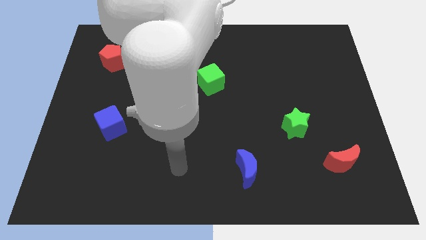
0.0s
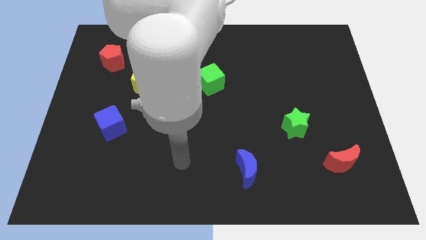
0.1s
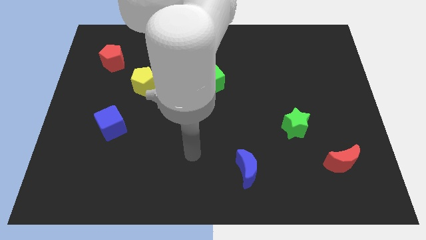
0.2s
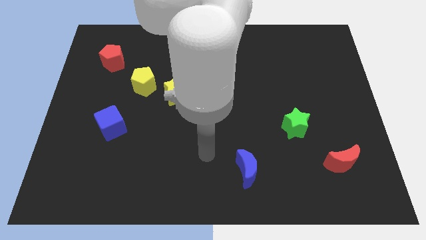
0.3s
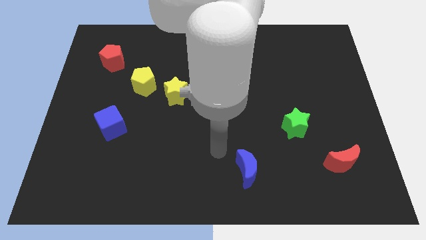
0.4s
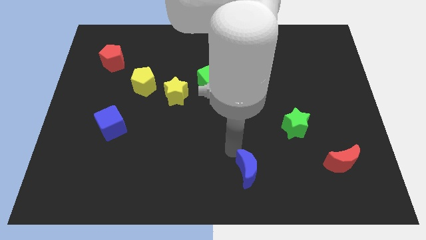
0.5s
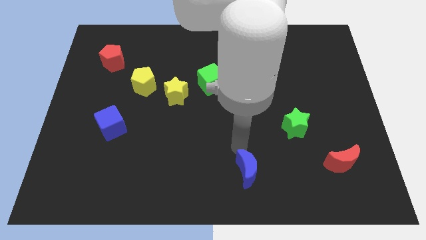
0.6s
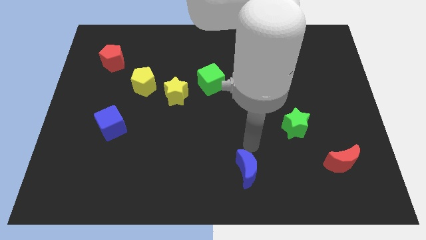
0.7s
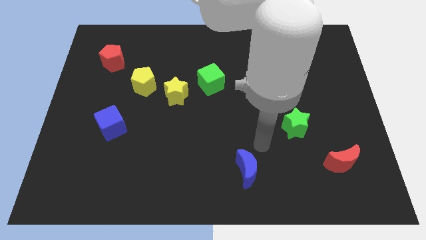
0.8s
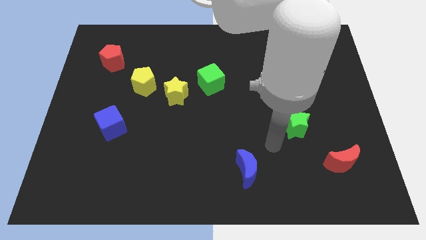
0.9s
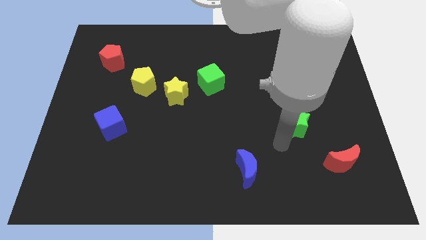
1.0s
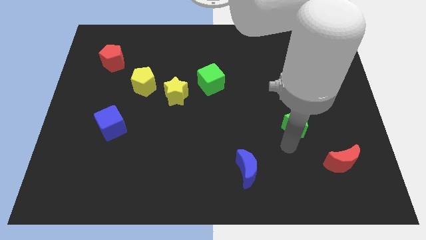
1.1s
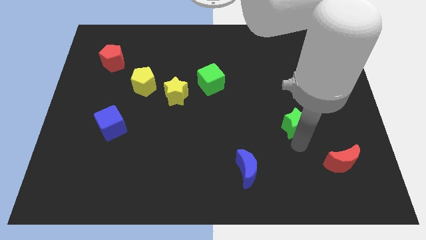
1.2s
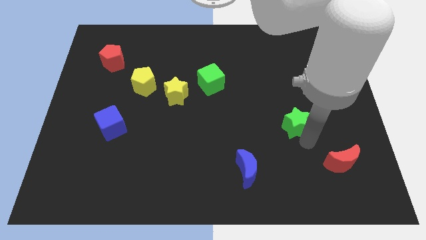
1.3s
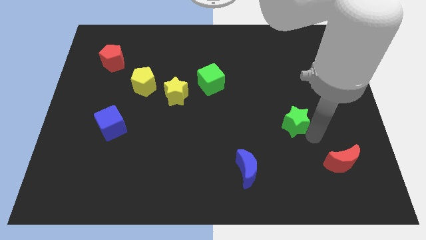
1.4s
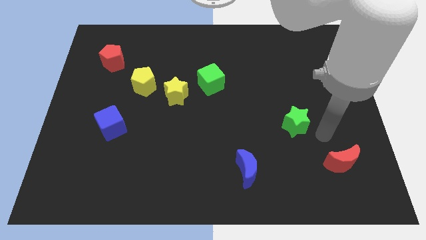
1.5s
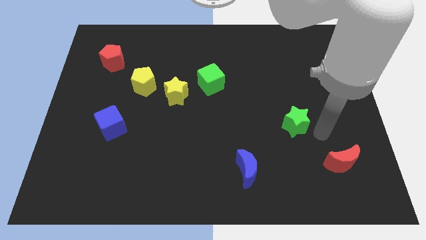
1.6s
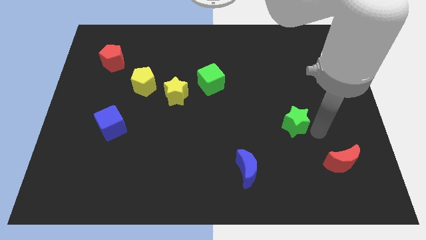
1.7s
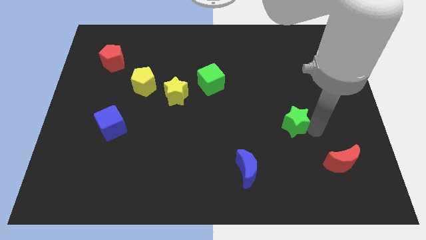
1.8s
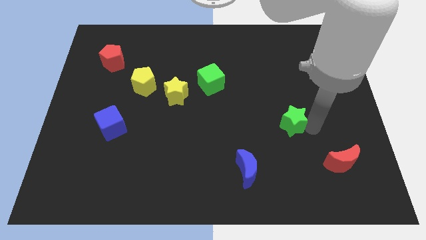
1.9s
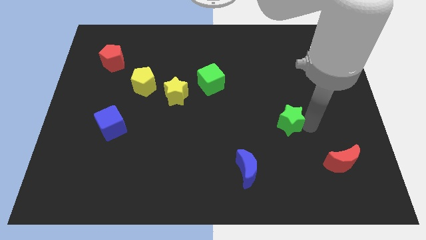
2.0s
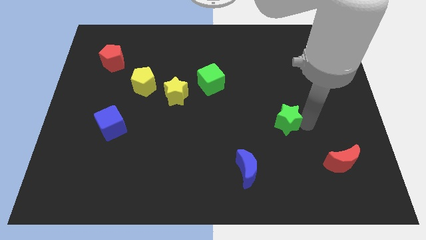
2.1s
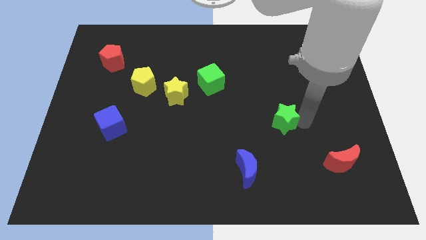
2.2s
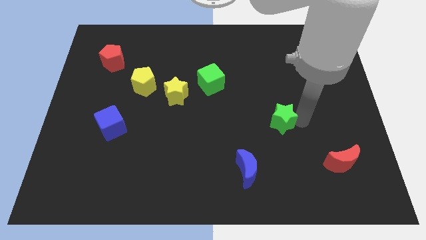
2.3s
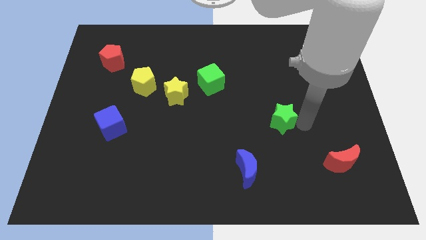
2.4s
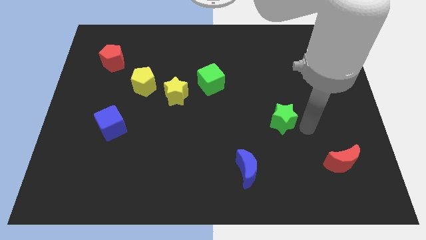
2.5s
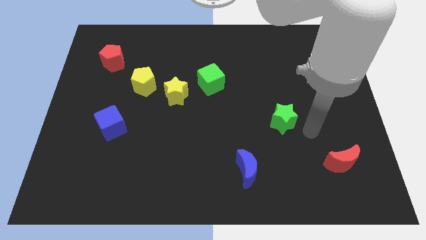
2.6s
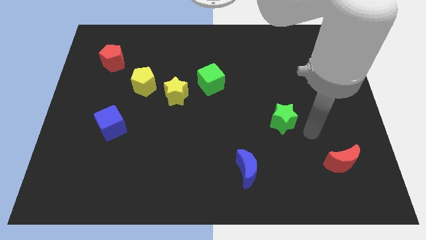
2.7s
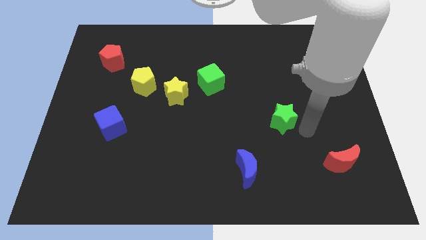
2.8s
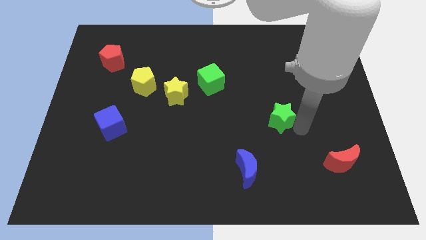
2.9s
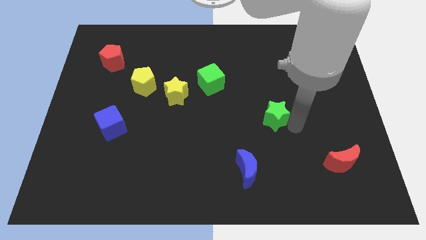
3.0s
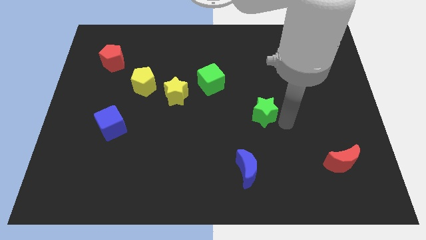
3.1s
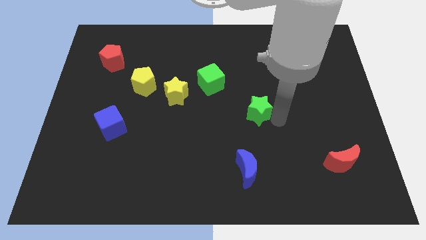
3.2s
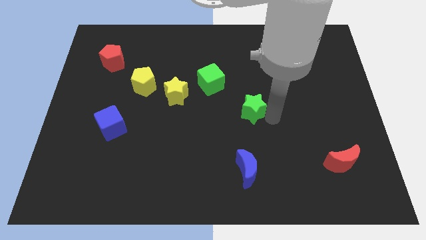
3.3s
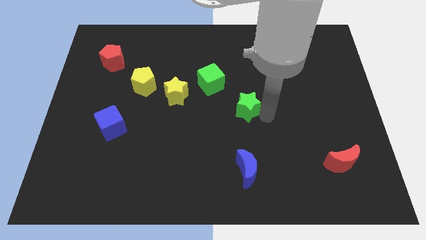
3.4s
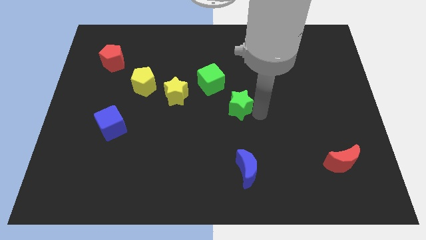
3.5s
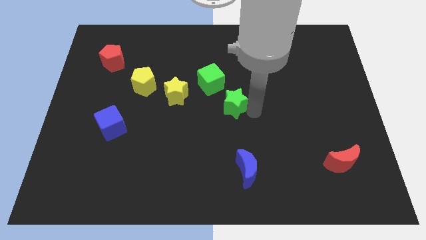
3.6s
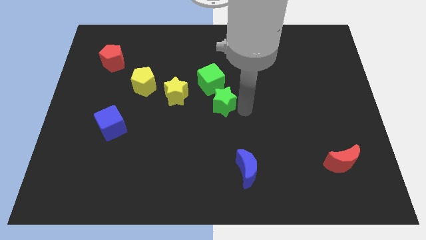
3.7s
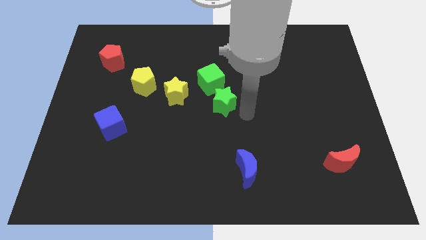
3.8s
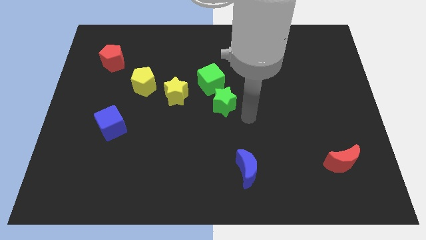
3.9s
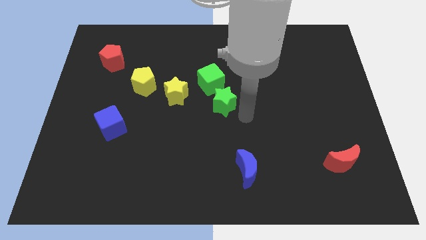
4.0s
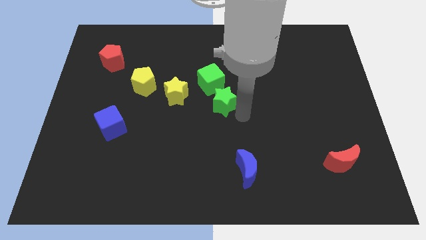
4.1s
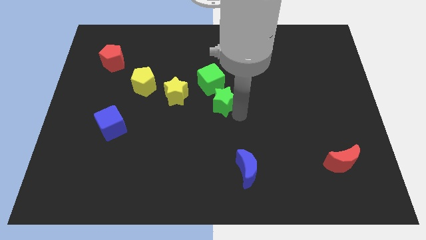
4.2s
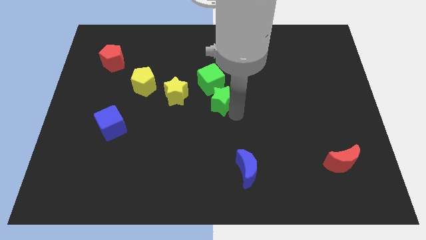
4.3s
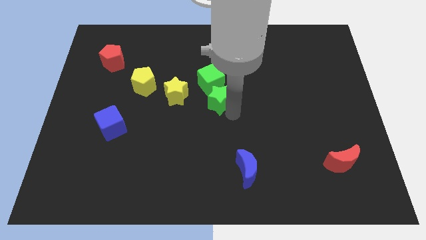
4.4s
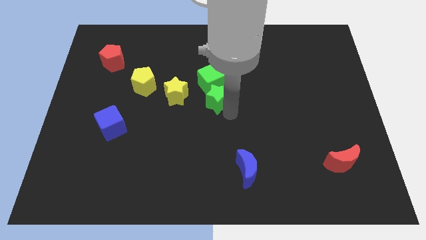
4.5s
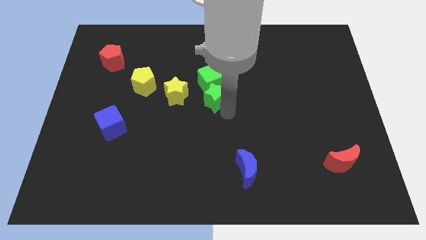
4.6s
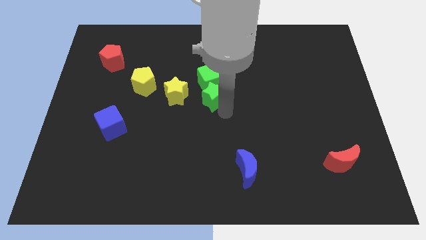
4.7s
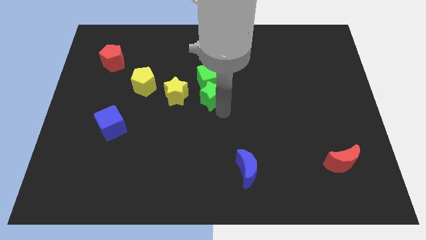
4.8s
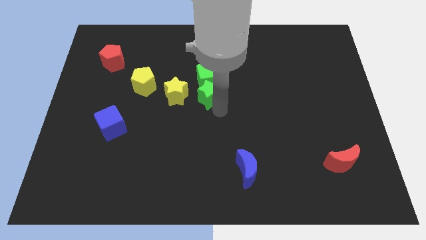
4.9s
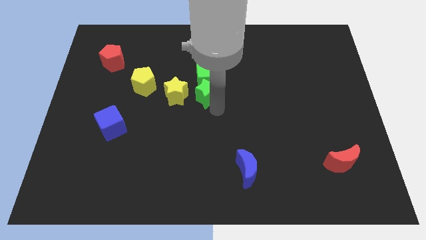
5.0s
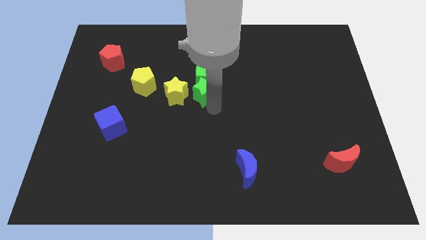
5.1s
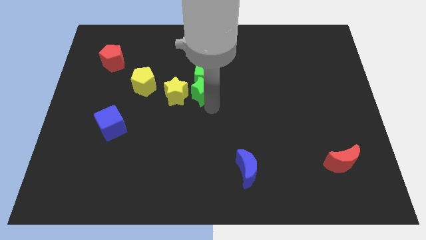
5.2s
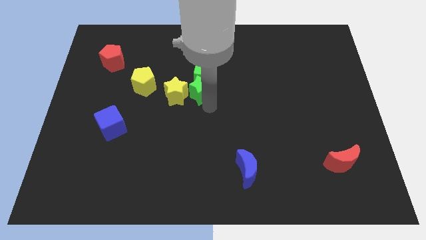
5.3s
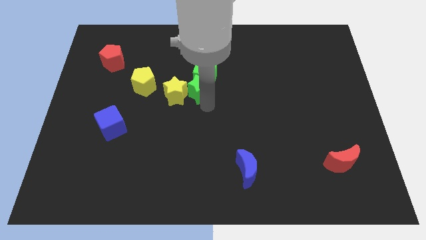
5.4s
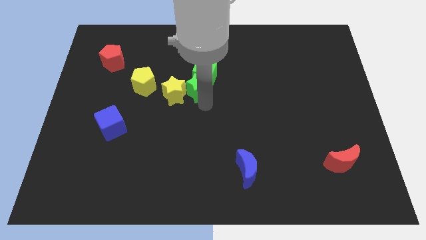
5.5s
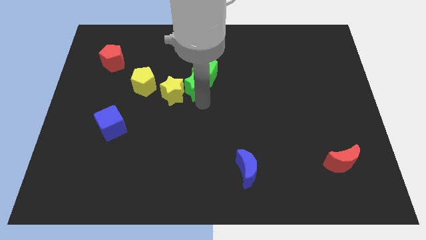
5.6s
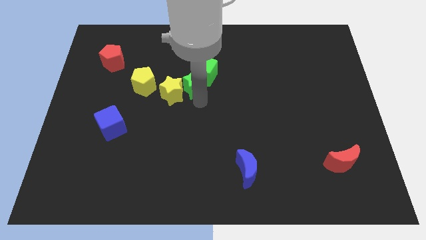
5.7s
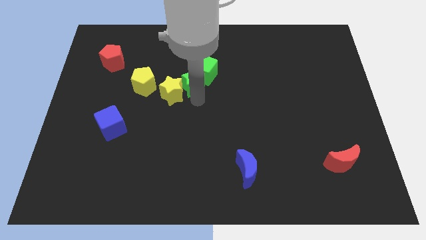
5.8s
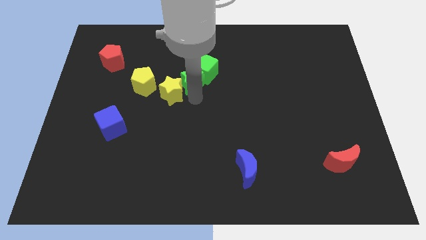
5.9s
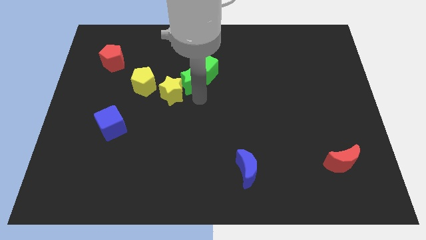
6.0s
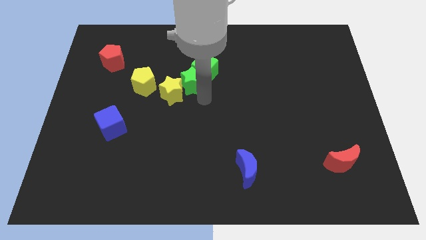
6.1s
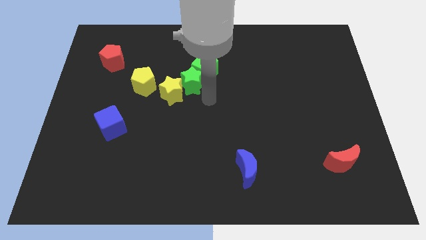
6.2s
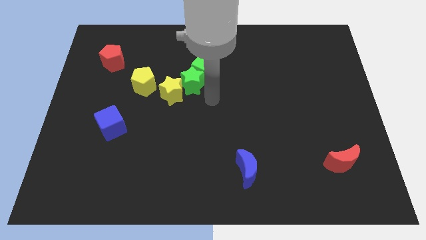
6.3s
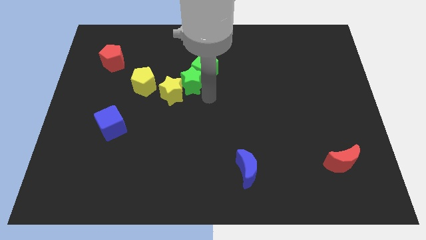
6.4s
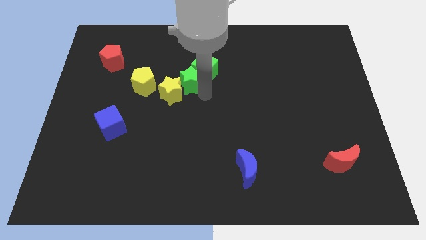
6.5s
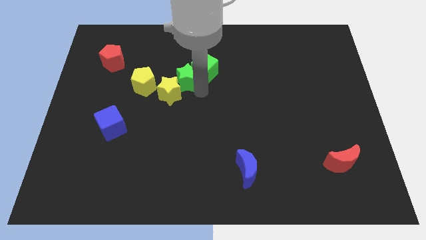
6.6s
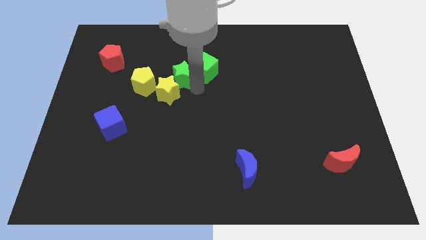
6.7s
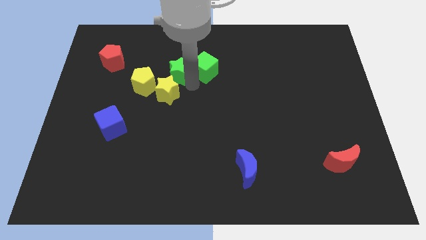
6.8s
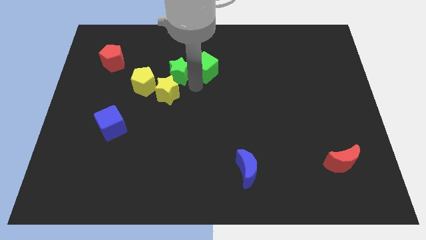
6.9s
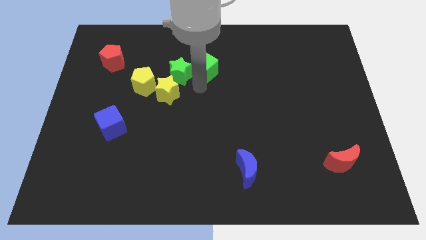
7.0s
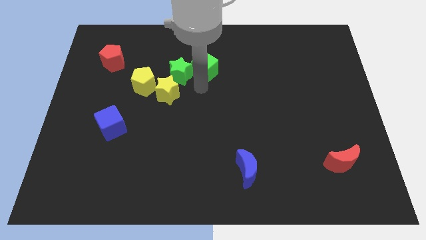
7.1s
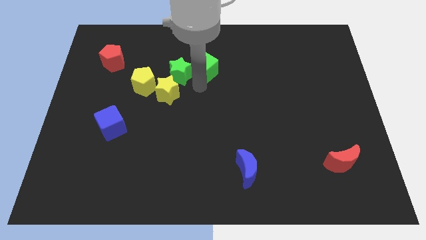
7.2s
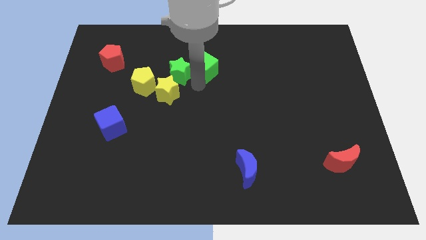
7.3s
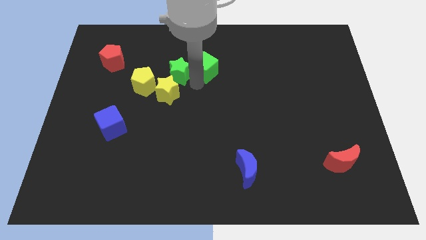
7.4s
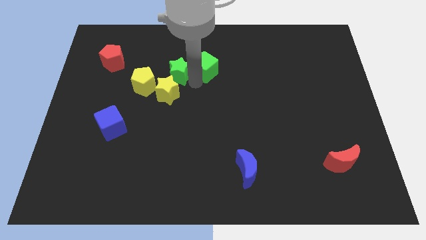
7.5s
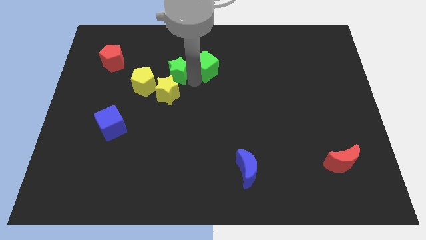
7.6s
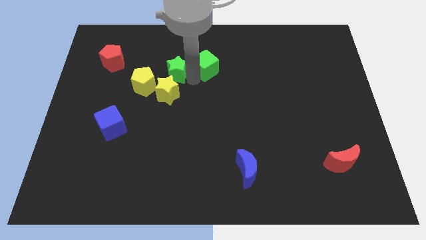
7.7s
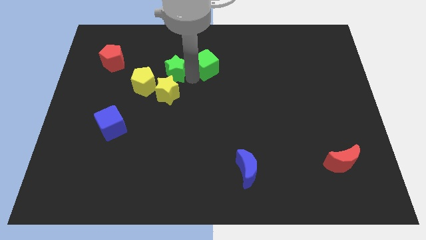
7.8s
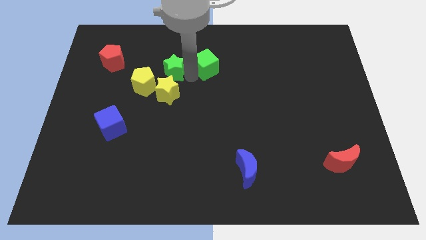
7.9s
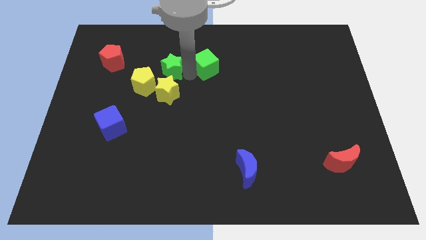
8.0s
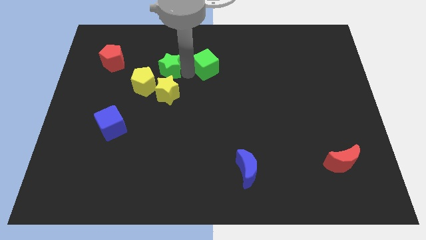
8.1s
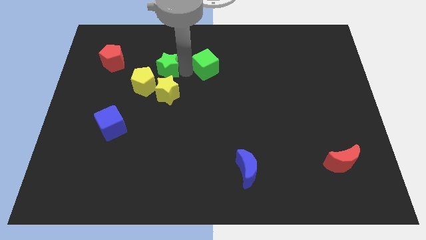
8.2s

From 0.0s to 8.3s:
push the green star to the right side of the red pentagon
